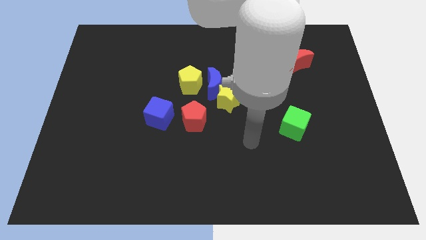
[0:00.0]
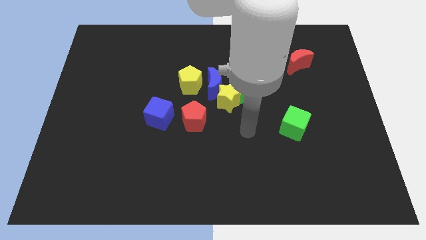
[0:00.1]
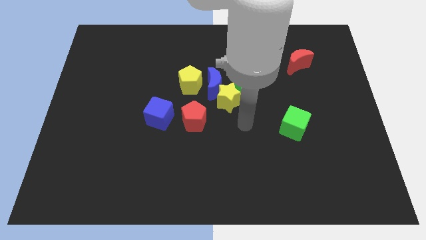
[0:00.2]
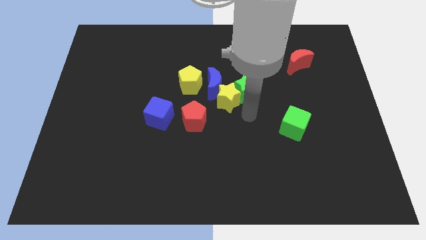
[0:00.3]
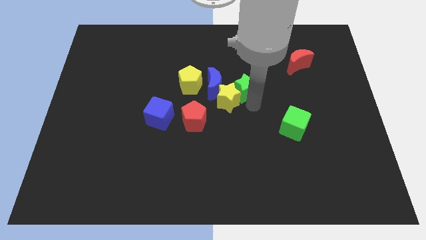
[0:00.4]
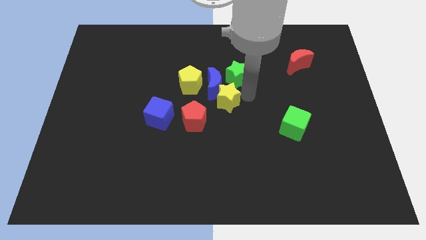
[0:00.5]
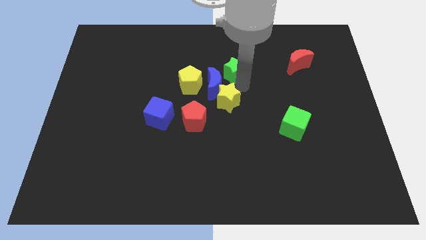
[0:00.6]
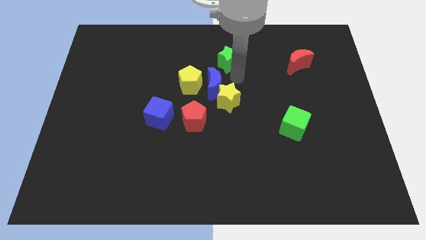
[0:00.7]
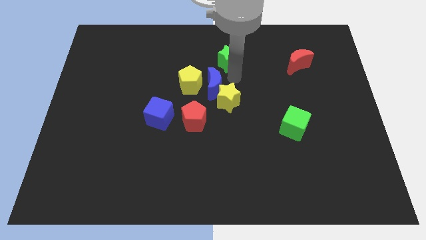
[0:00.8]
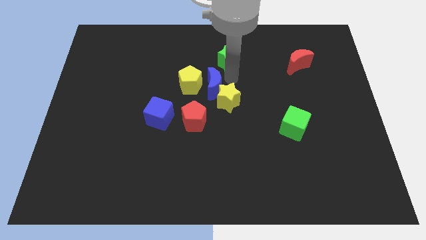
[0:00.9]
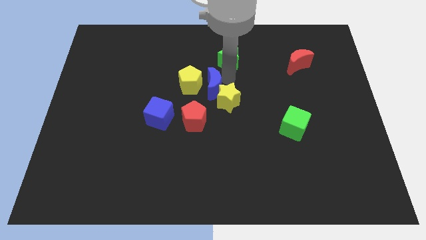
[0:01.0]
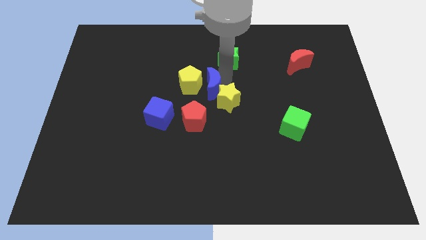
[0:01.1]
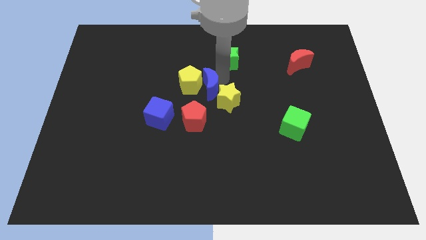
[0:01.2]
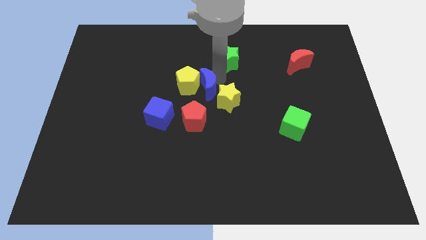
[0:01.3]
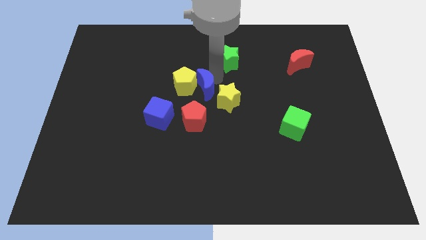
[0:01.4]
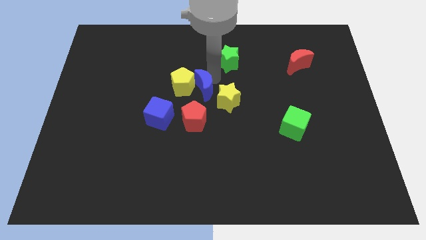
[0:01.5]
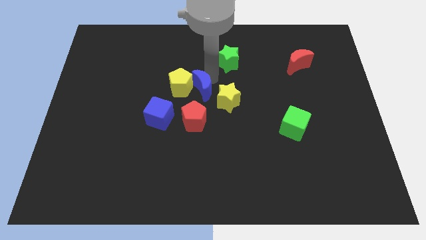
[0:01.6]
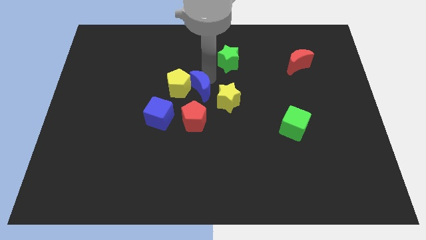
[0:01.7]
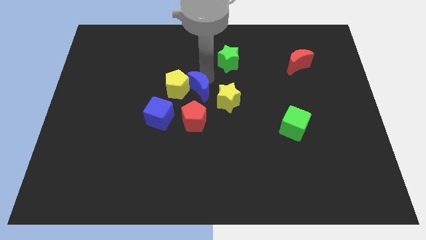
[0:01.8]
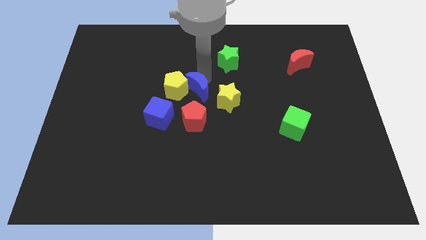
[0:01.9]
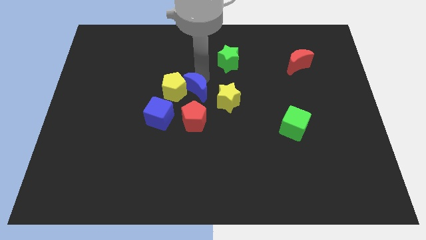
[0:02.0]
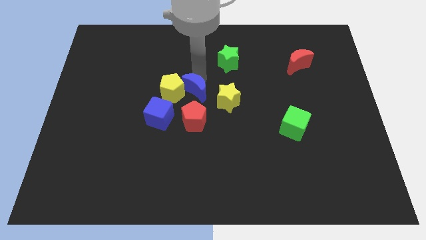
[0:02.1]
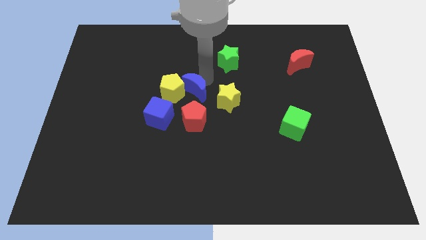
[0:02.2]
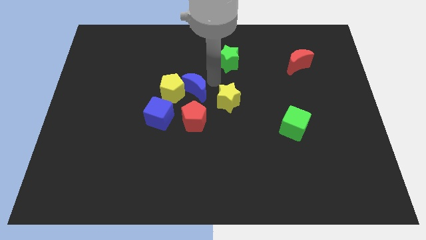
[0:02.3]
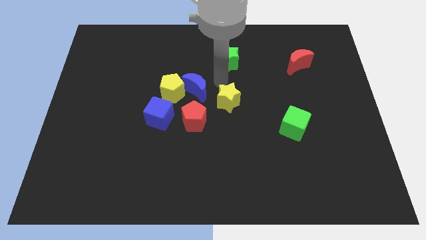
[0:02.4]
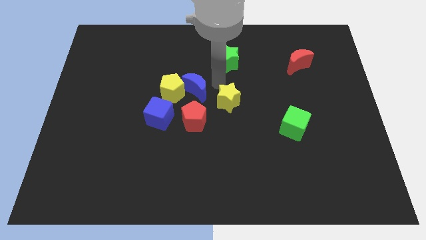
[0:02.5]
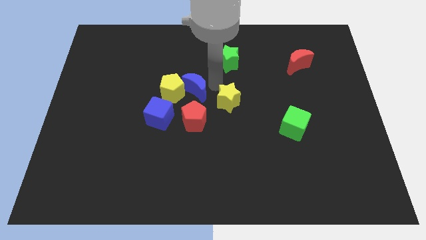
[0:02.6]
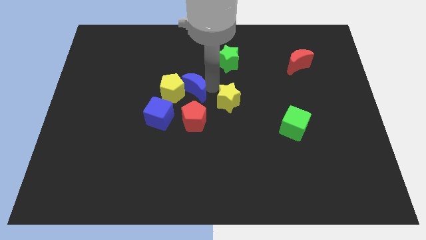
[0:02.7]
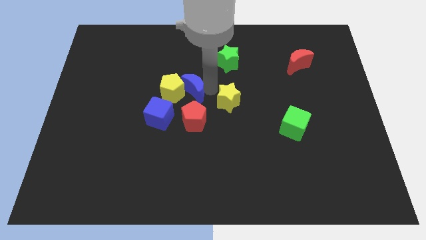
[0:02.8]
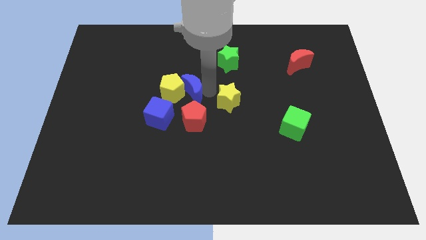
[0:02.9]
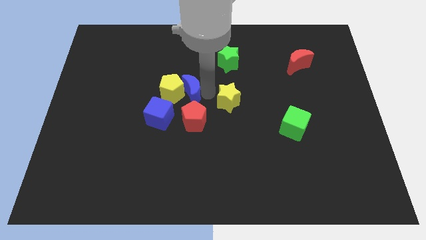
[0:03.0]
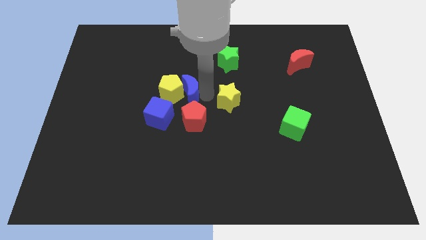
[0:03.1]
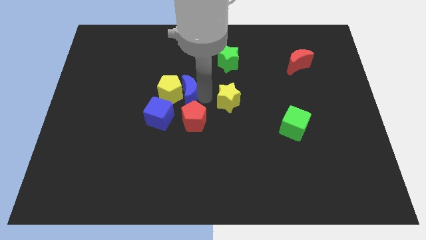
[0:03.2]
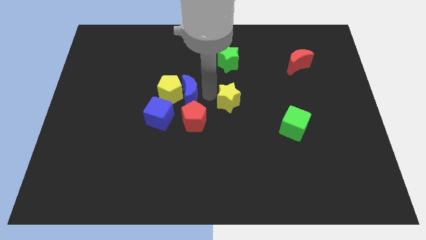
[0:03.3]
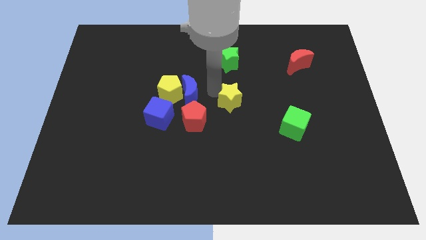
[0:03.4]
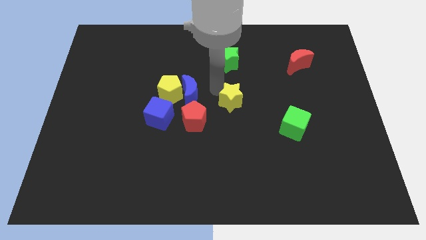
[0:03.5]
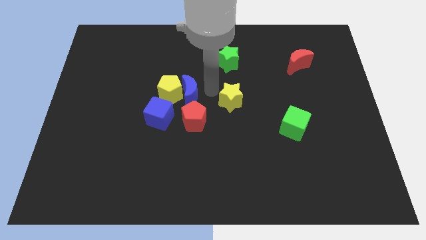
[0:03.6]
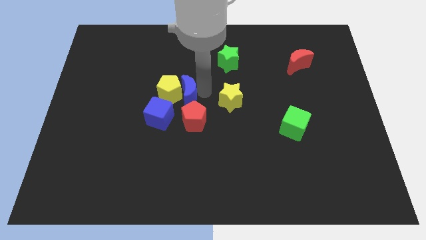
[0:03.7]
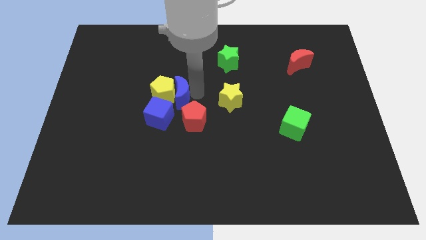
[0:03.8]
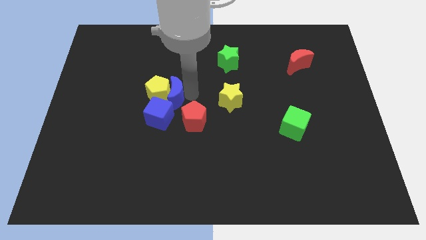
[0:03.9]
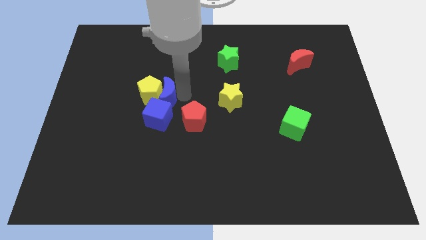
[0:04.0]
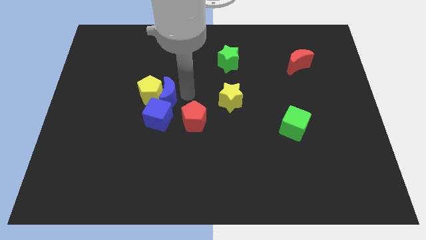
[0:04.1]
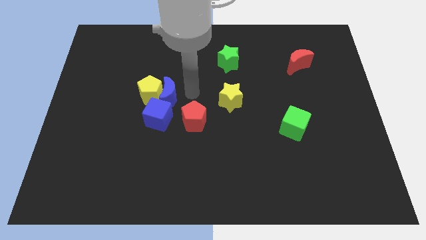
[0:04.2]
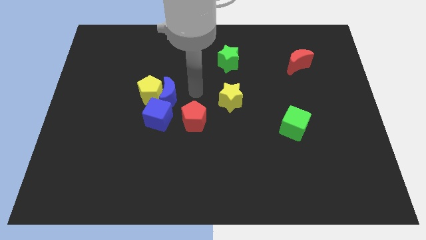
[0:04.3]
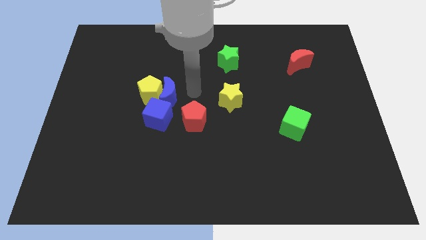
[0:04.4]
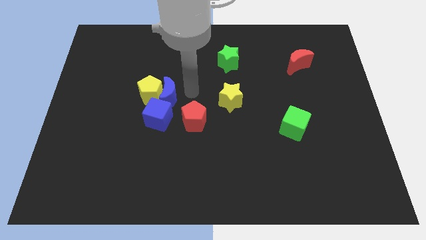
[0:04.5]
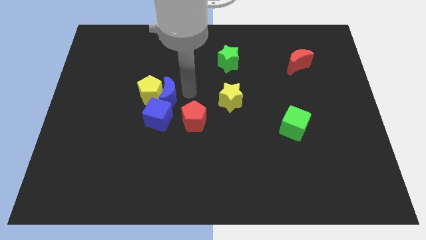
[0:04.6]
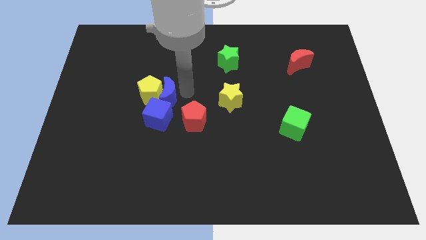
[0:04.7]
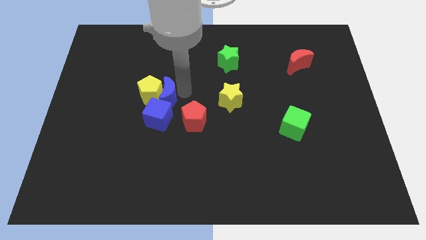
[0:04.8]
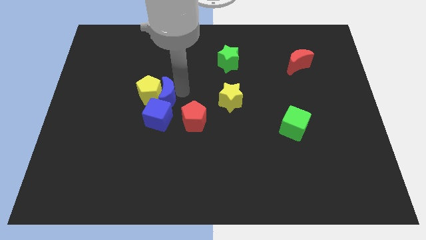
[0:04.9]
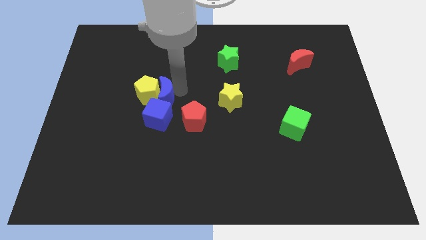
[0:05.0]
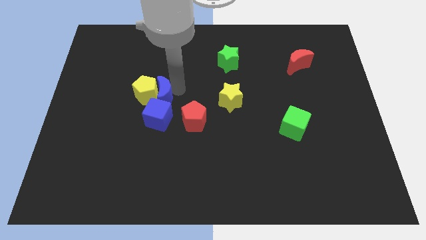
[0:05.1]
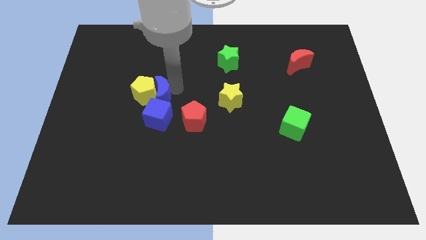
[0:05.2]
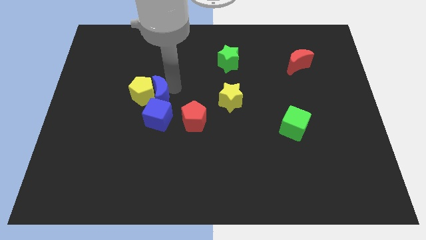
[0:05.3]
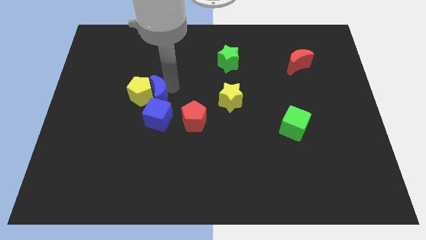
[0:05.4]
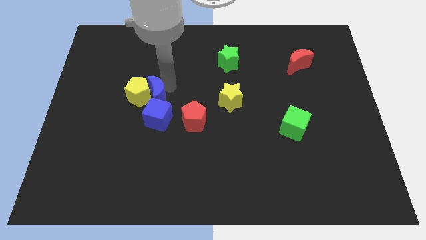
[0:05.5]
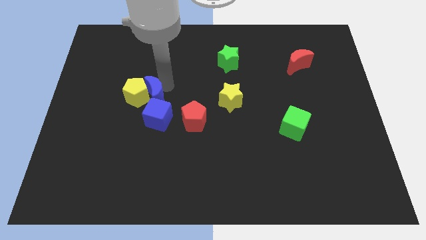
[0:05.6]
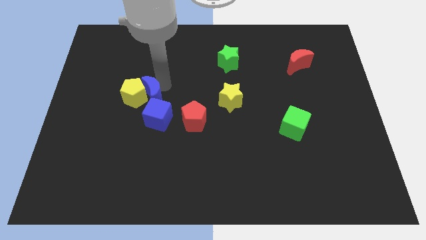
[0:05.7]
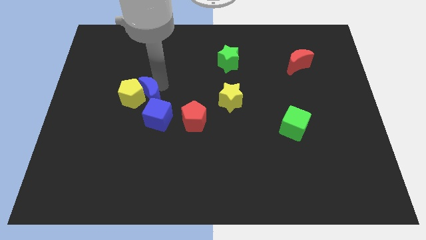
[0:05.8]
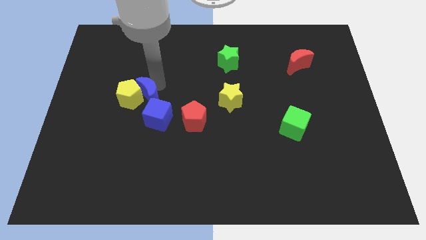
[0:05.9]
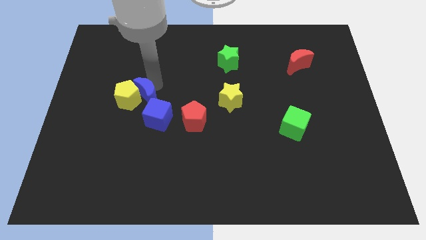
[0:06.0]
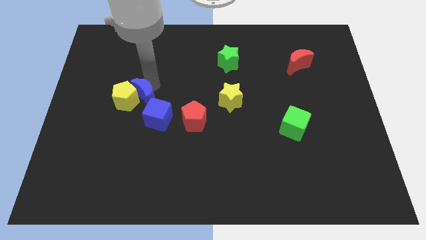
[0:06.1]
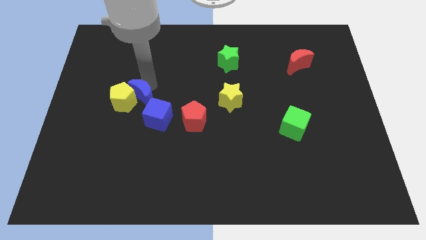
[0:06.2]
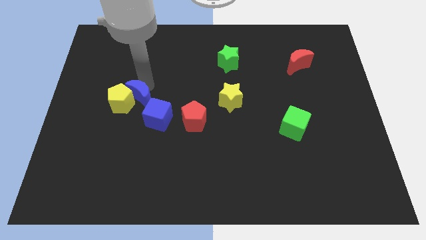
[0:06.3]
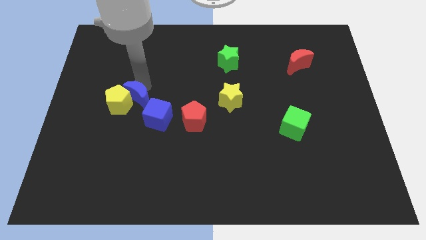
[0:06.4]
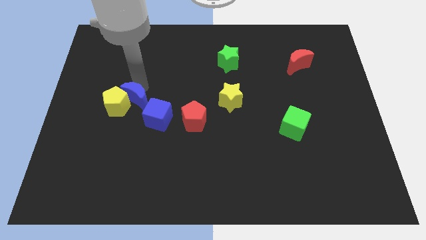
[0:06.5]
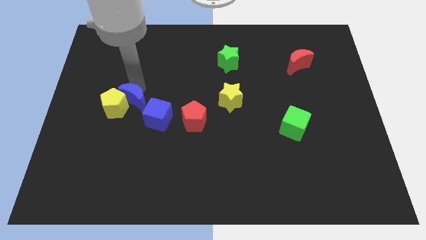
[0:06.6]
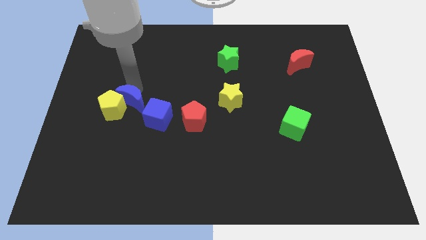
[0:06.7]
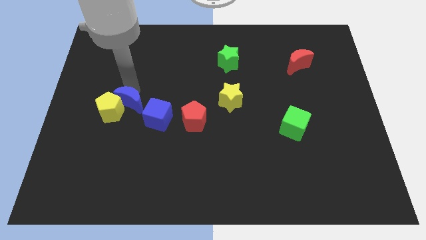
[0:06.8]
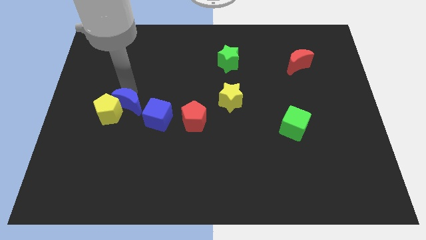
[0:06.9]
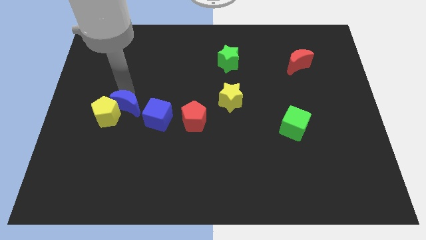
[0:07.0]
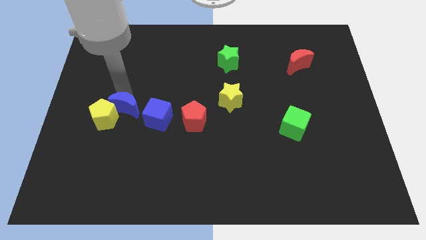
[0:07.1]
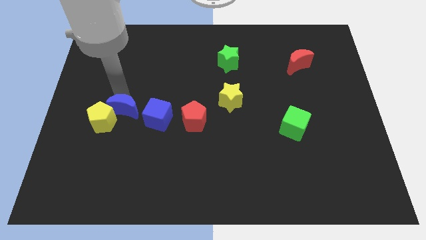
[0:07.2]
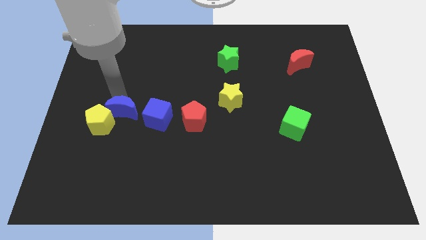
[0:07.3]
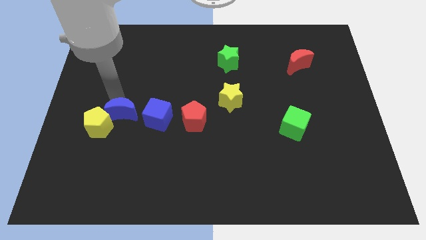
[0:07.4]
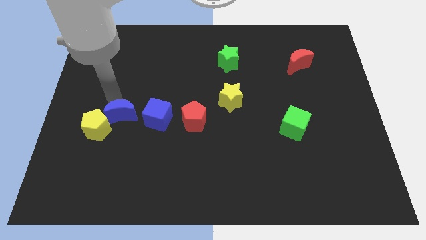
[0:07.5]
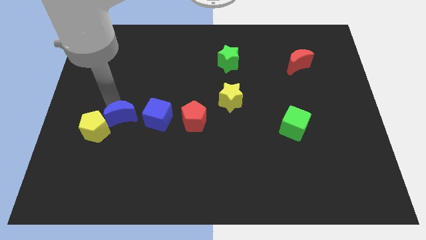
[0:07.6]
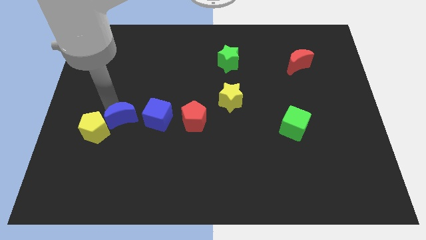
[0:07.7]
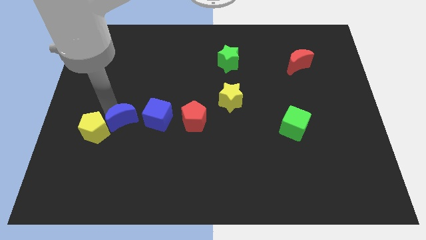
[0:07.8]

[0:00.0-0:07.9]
push the blue moon to the left side of the red pentagon
